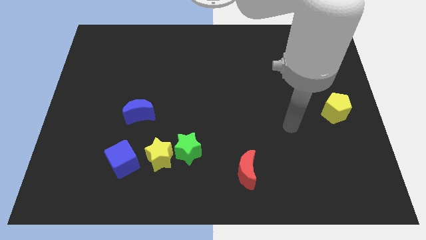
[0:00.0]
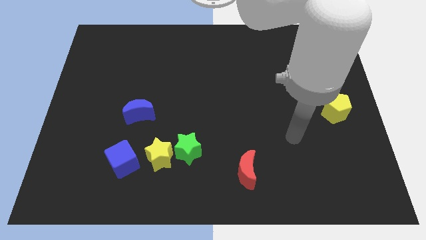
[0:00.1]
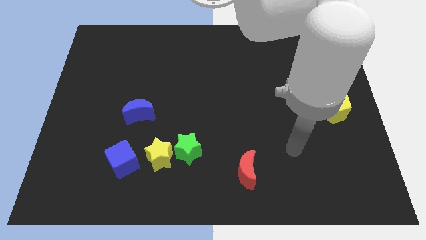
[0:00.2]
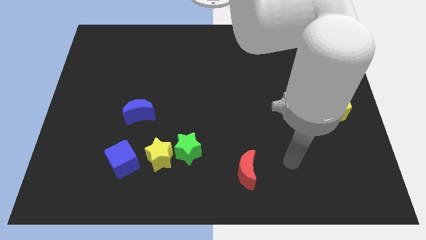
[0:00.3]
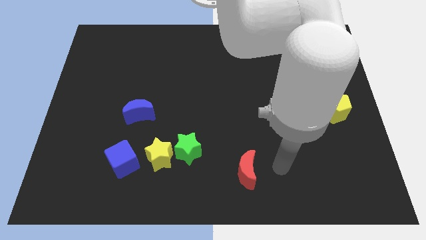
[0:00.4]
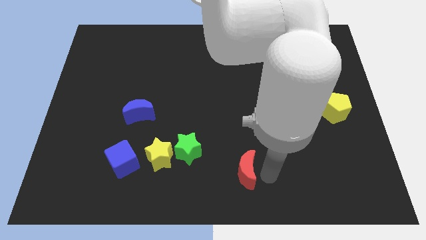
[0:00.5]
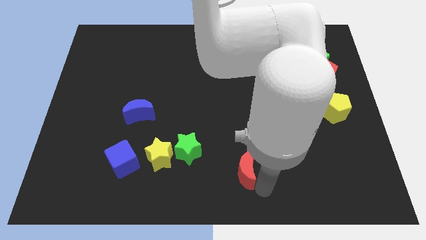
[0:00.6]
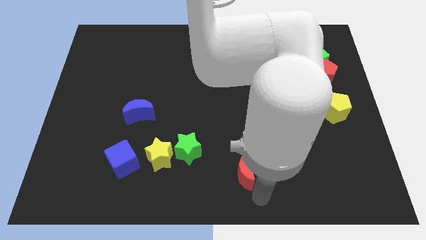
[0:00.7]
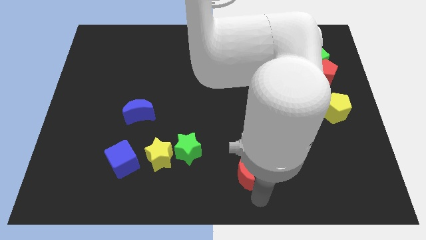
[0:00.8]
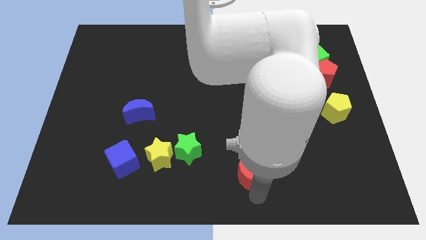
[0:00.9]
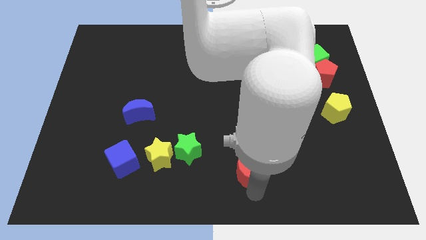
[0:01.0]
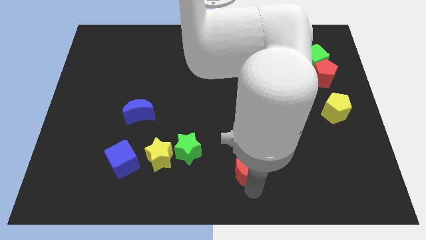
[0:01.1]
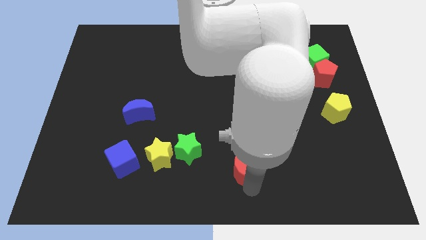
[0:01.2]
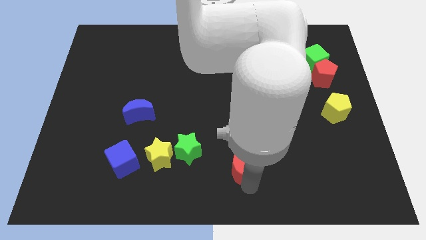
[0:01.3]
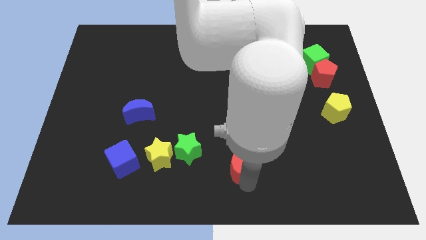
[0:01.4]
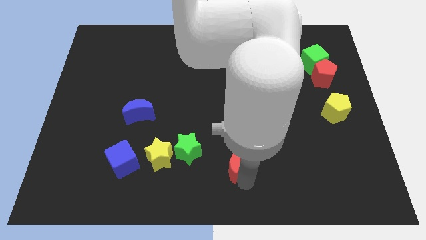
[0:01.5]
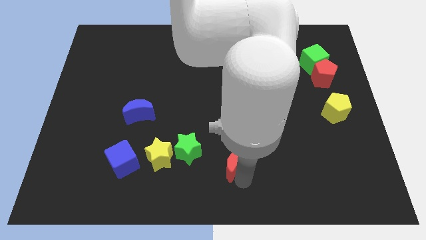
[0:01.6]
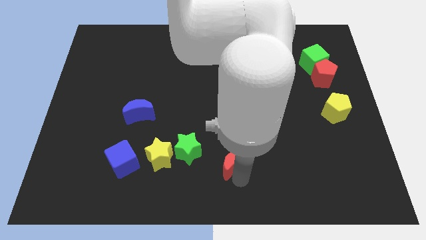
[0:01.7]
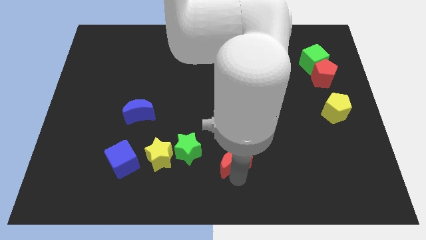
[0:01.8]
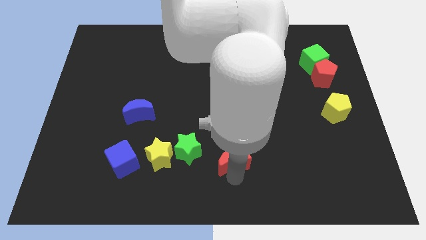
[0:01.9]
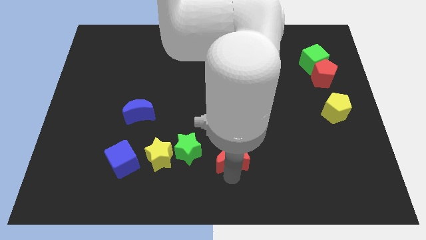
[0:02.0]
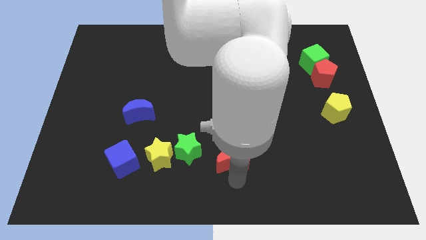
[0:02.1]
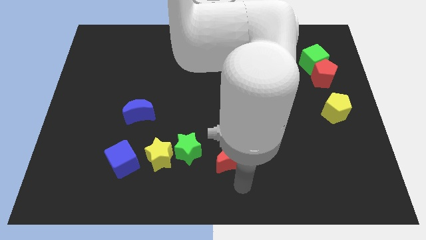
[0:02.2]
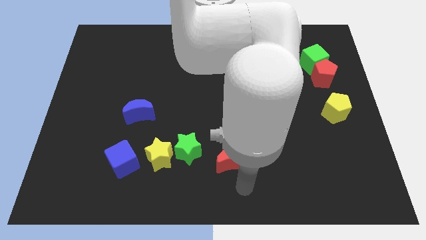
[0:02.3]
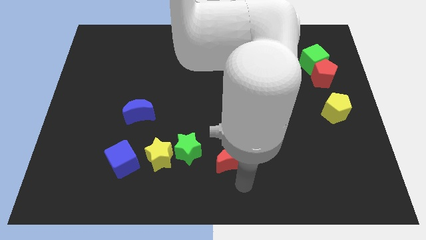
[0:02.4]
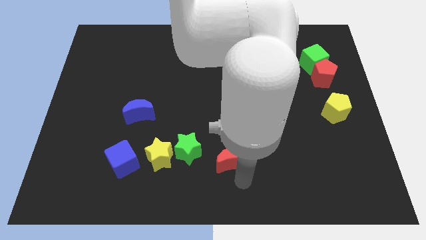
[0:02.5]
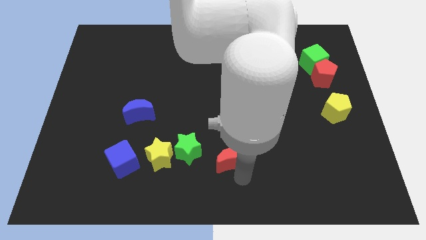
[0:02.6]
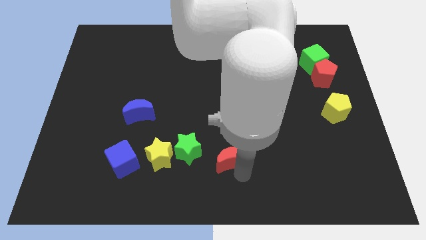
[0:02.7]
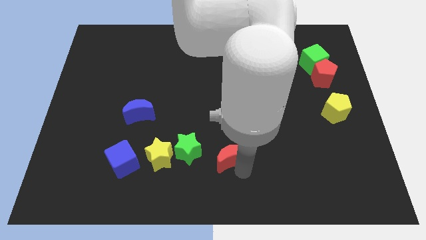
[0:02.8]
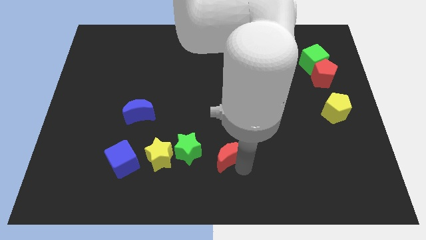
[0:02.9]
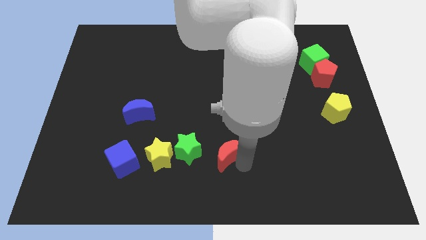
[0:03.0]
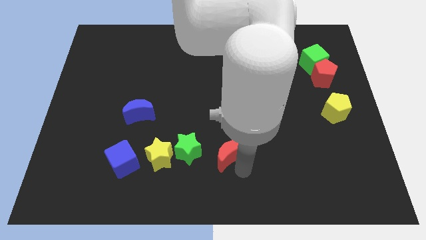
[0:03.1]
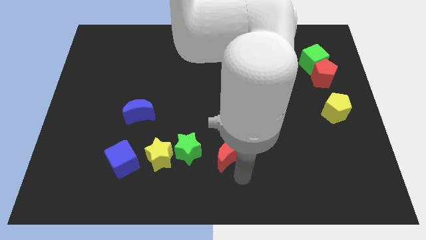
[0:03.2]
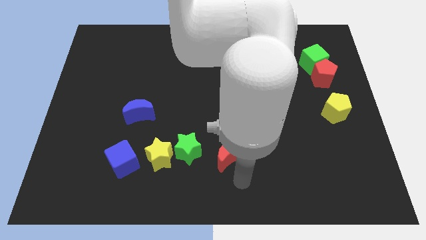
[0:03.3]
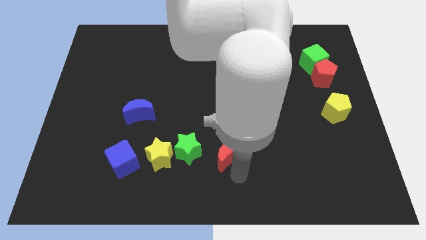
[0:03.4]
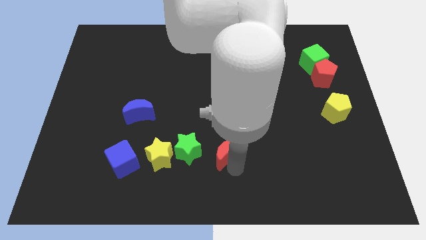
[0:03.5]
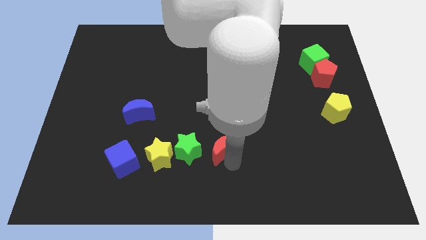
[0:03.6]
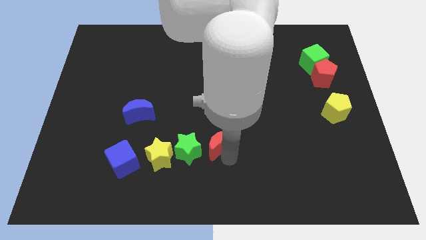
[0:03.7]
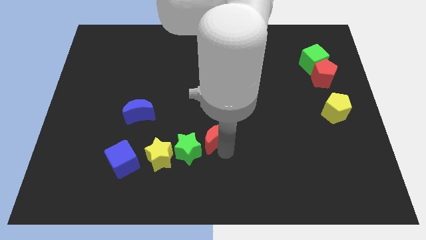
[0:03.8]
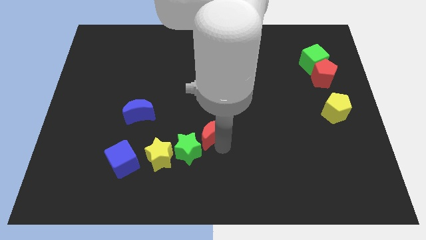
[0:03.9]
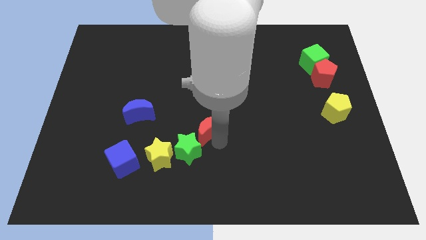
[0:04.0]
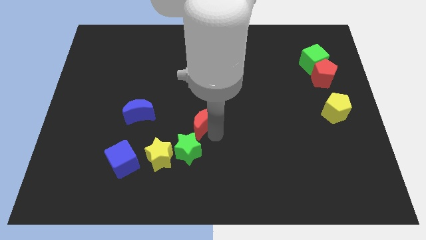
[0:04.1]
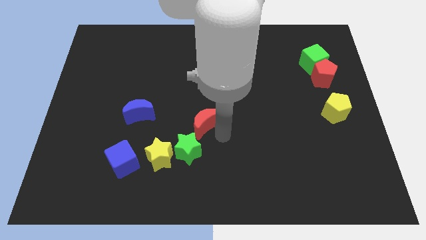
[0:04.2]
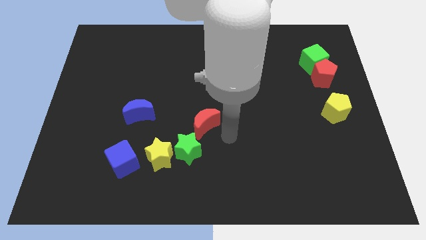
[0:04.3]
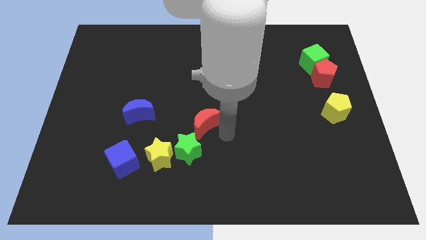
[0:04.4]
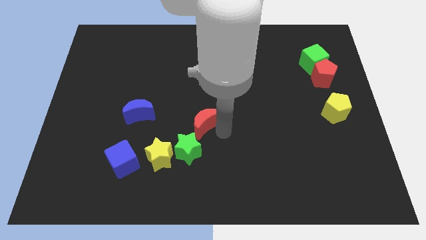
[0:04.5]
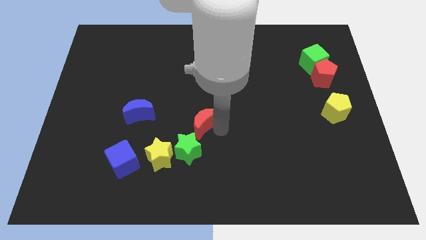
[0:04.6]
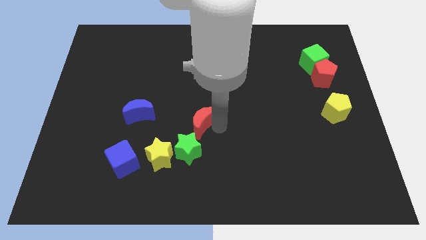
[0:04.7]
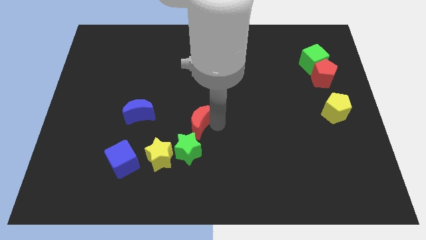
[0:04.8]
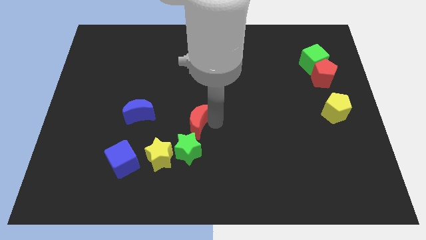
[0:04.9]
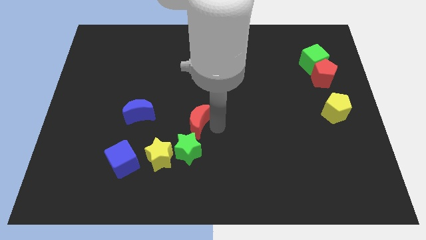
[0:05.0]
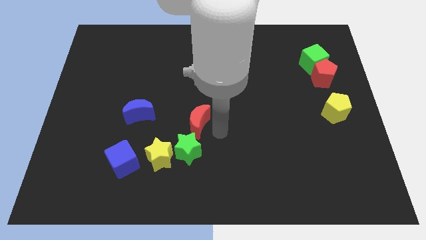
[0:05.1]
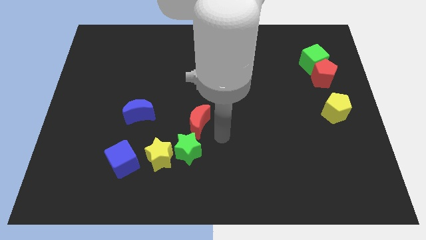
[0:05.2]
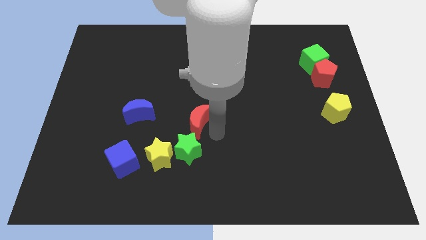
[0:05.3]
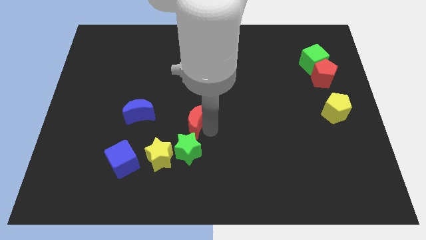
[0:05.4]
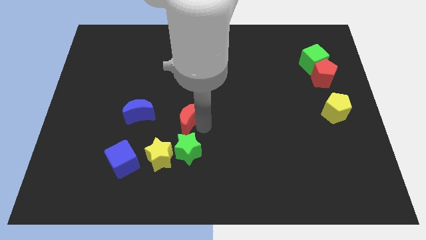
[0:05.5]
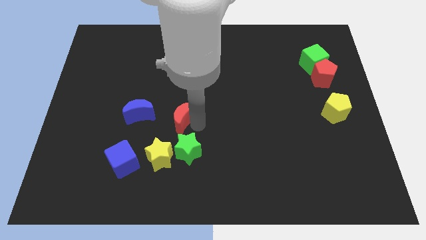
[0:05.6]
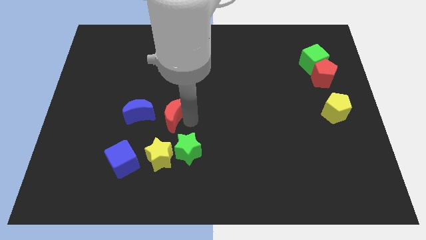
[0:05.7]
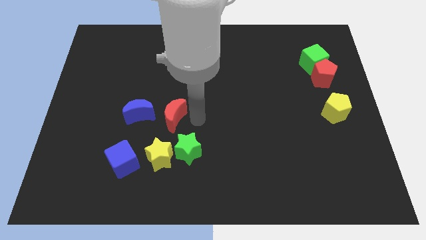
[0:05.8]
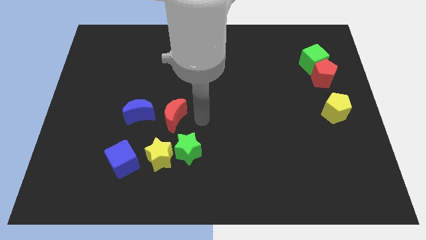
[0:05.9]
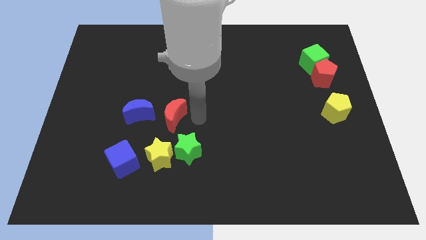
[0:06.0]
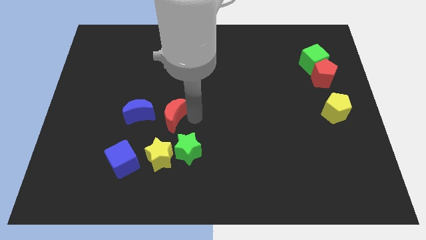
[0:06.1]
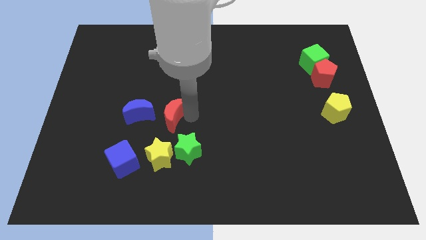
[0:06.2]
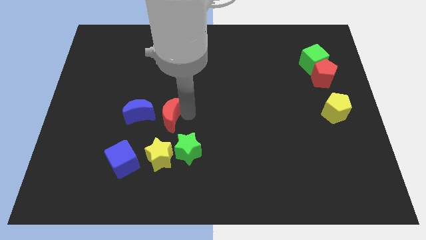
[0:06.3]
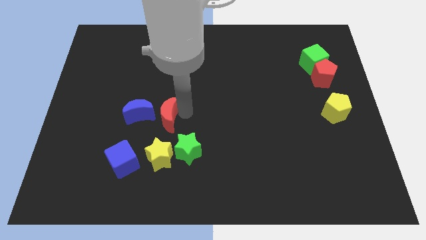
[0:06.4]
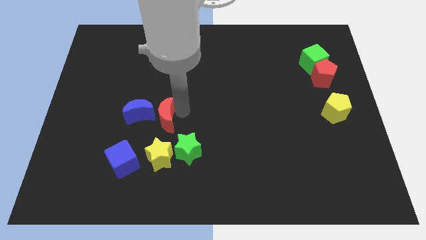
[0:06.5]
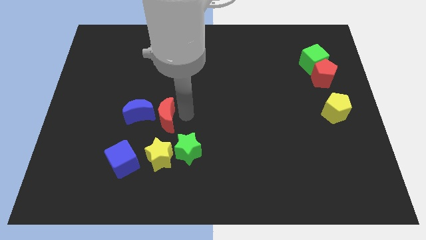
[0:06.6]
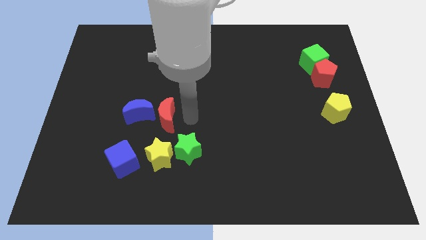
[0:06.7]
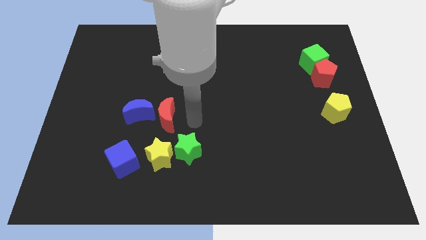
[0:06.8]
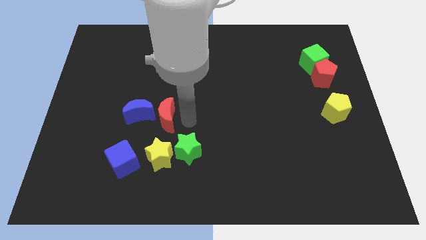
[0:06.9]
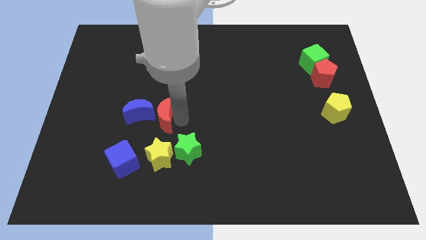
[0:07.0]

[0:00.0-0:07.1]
move the red moon next to the blue moon
